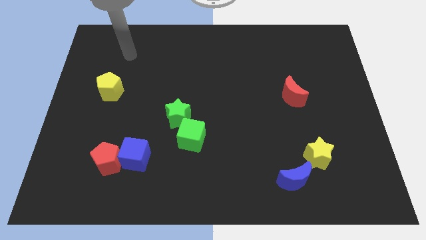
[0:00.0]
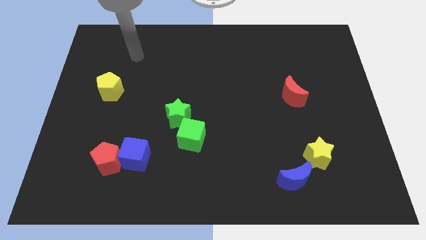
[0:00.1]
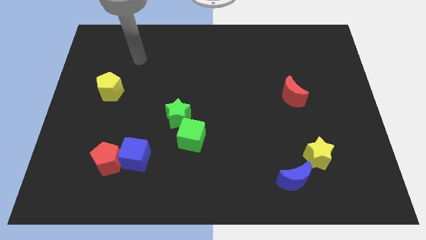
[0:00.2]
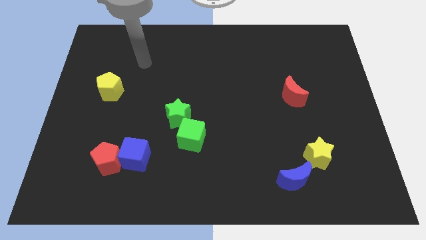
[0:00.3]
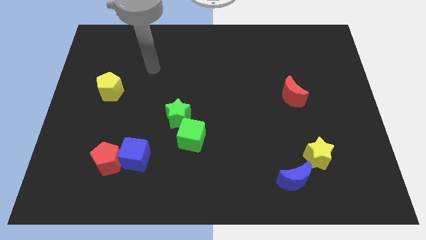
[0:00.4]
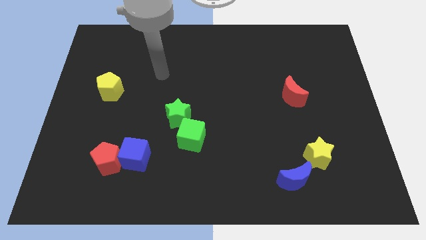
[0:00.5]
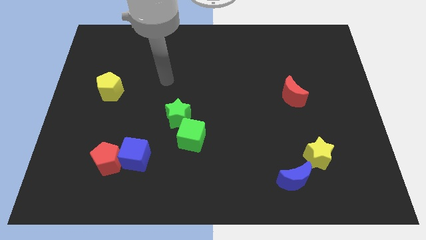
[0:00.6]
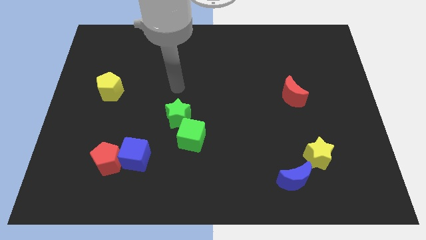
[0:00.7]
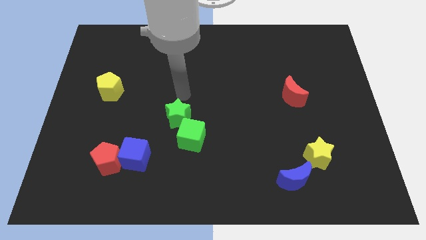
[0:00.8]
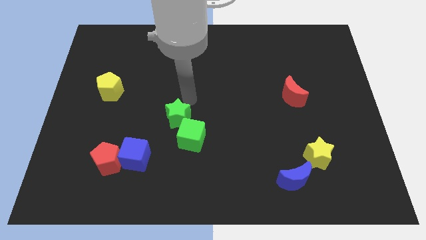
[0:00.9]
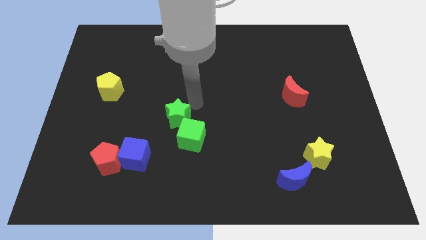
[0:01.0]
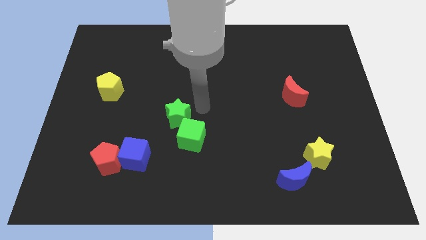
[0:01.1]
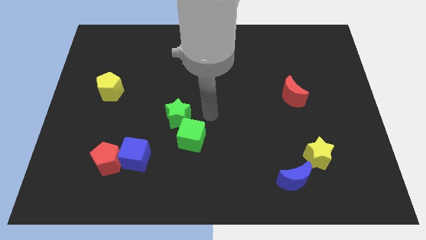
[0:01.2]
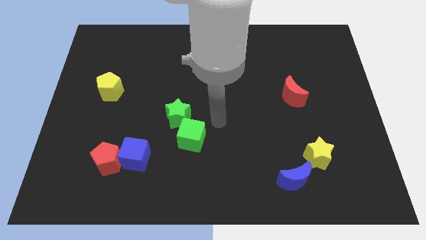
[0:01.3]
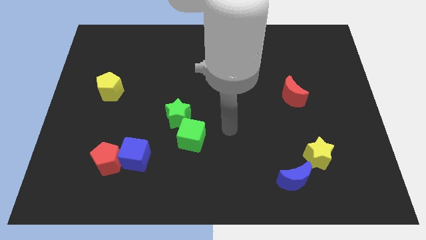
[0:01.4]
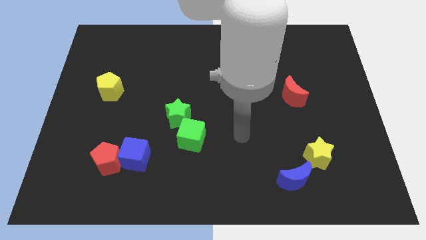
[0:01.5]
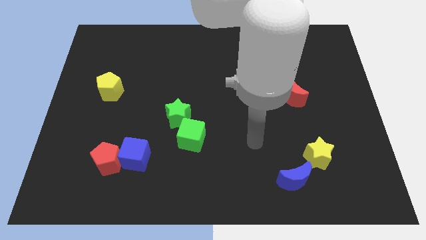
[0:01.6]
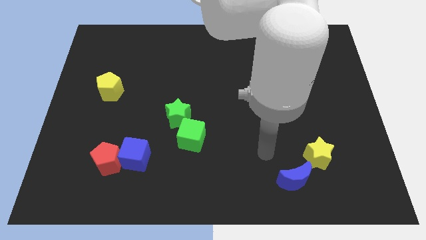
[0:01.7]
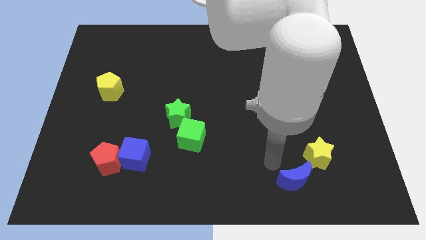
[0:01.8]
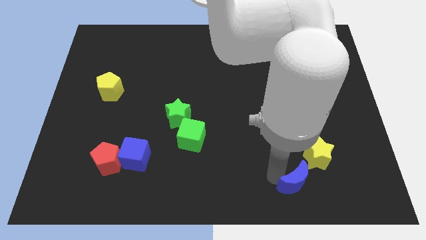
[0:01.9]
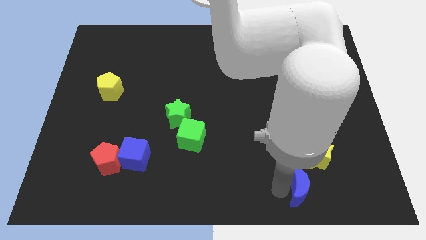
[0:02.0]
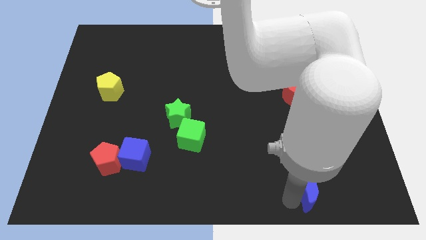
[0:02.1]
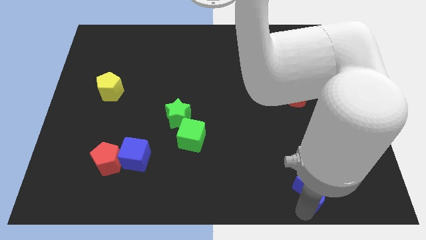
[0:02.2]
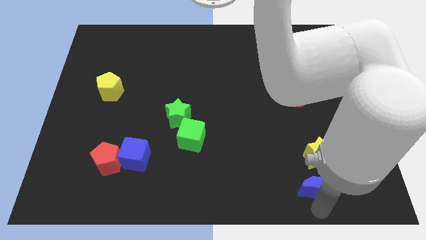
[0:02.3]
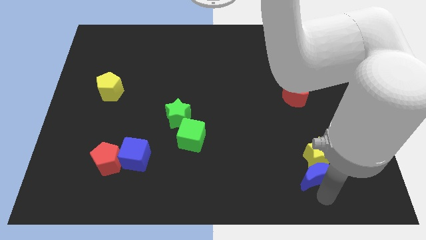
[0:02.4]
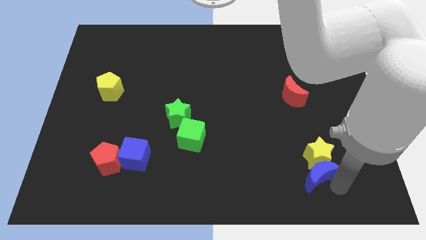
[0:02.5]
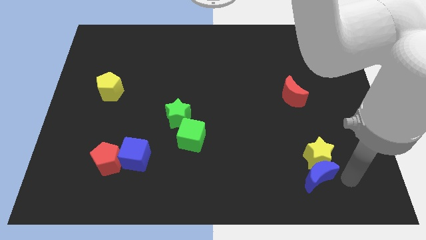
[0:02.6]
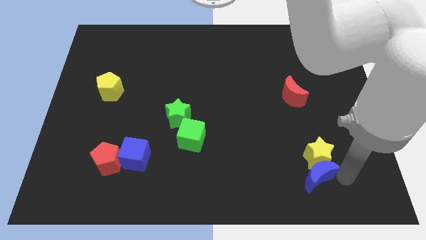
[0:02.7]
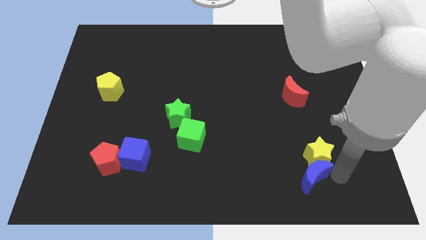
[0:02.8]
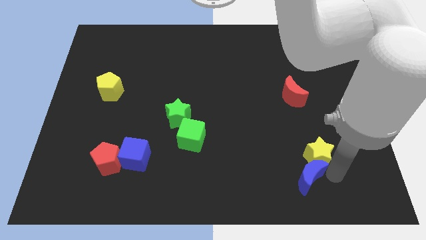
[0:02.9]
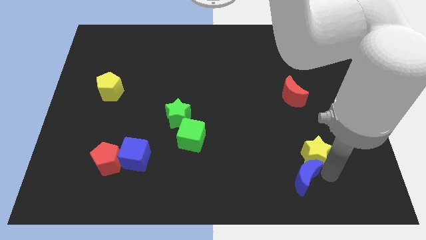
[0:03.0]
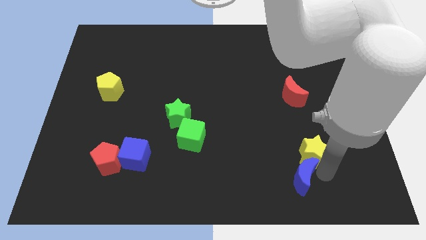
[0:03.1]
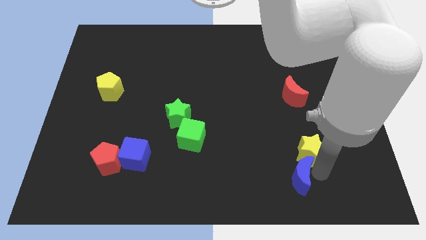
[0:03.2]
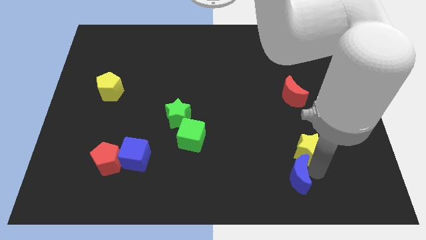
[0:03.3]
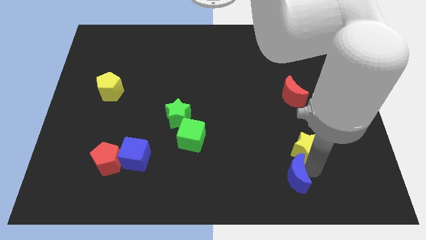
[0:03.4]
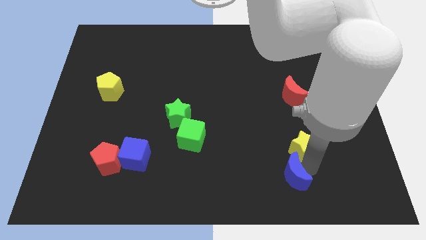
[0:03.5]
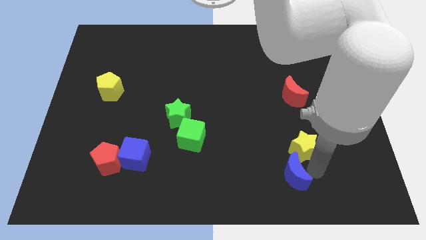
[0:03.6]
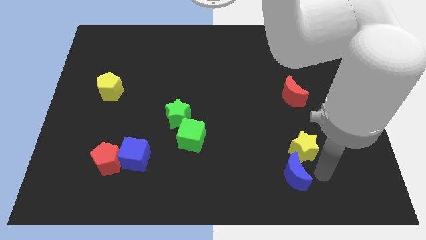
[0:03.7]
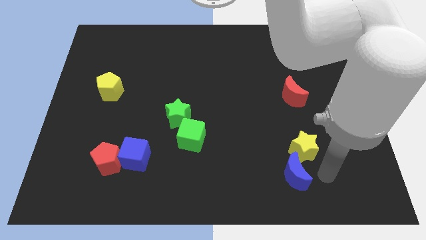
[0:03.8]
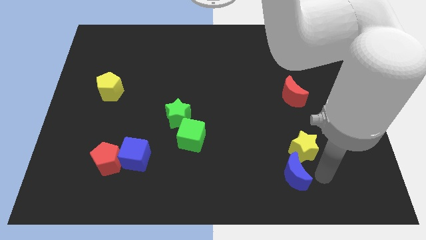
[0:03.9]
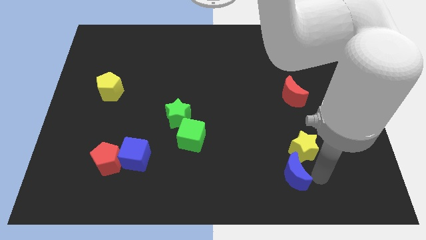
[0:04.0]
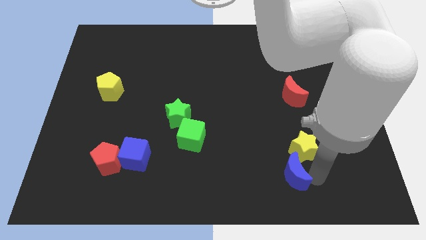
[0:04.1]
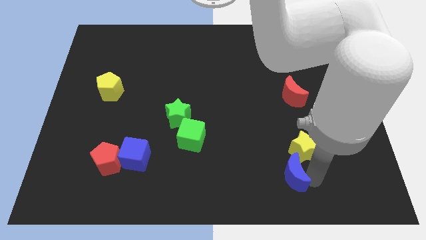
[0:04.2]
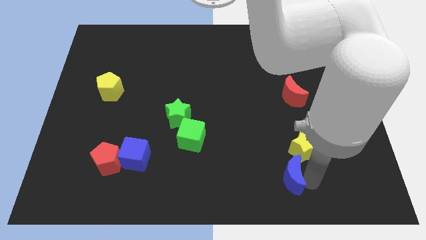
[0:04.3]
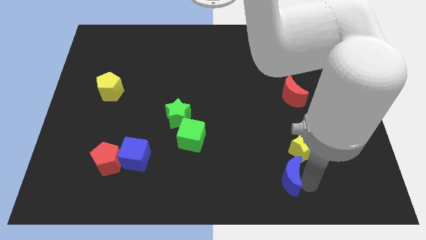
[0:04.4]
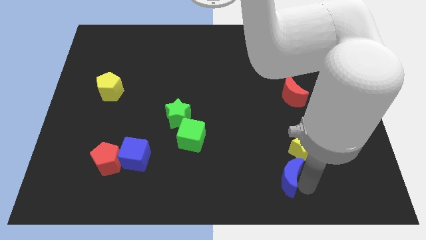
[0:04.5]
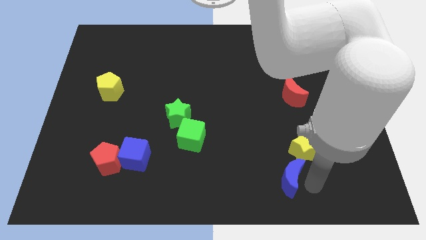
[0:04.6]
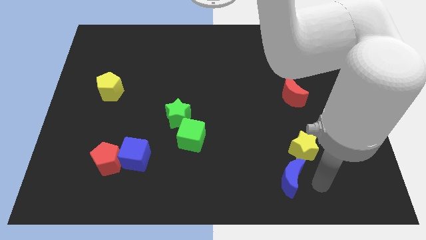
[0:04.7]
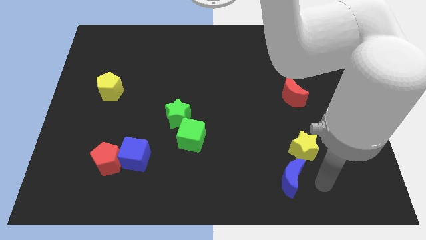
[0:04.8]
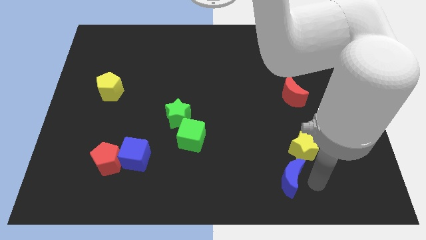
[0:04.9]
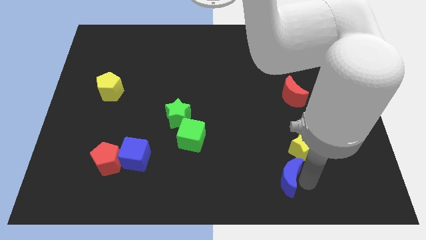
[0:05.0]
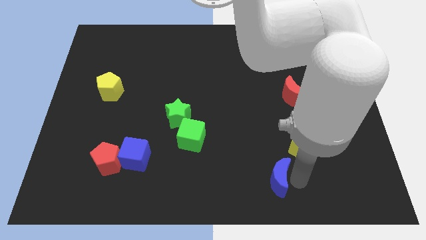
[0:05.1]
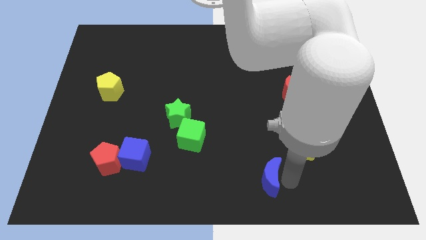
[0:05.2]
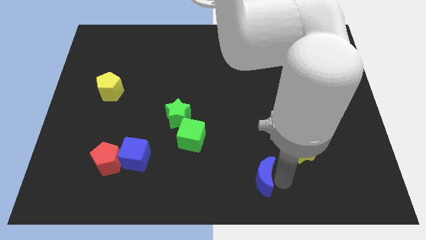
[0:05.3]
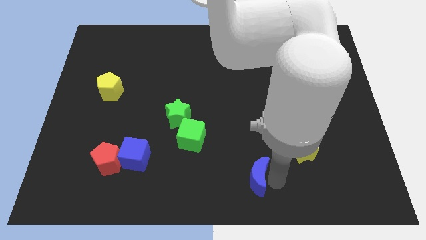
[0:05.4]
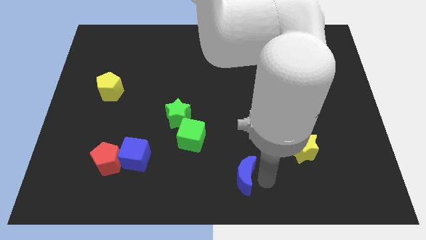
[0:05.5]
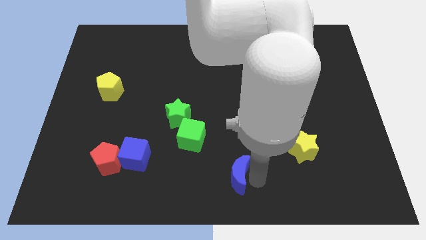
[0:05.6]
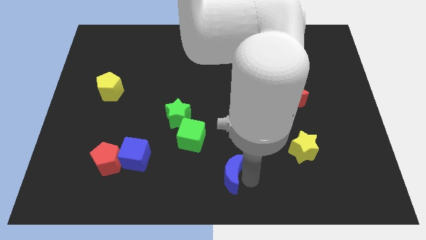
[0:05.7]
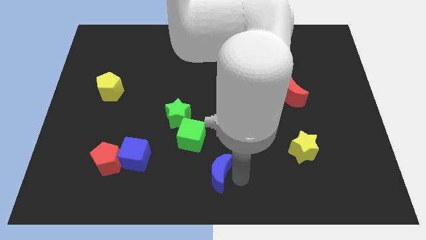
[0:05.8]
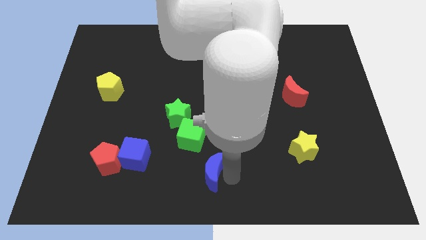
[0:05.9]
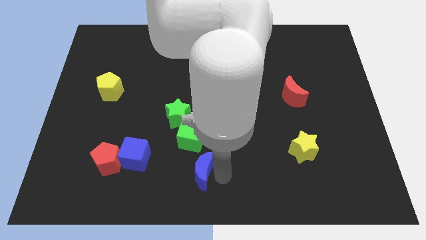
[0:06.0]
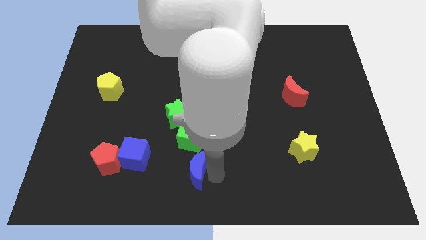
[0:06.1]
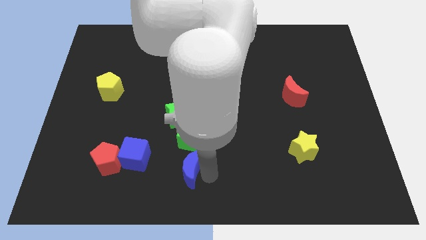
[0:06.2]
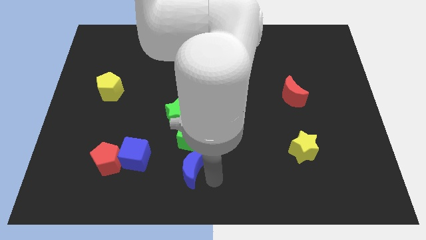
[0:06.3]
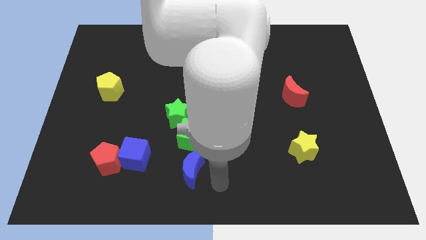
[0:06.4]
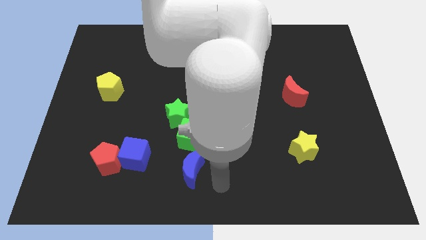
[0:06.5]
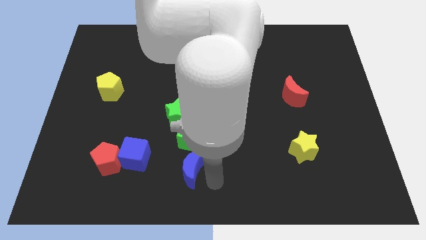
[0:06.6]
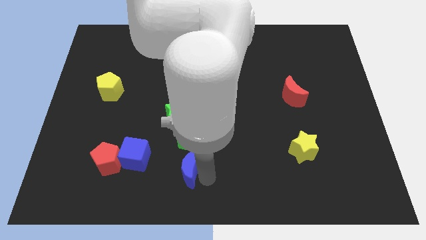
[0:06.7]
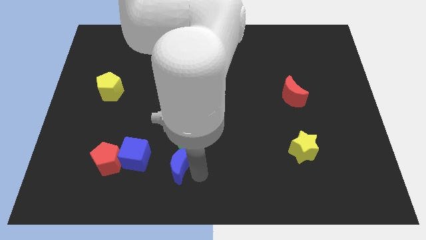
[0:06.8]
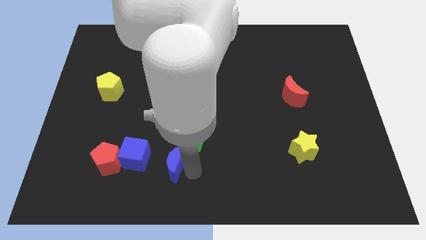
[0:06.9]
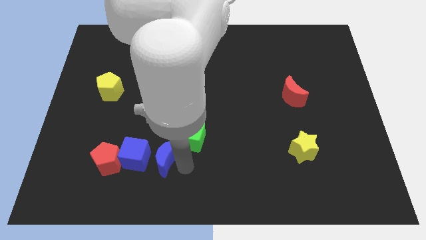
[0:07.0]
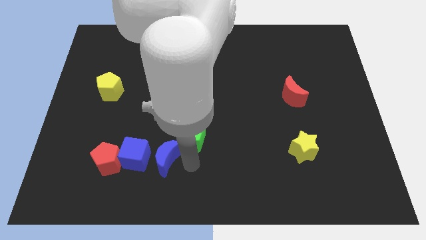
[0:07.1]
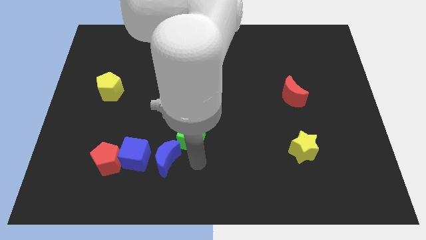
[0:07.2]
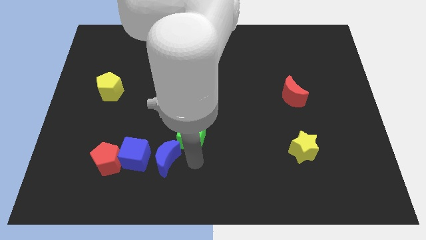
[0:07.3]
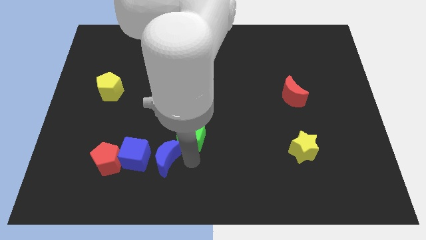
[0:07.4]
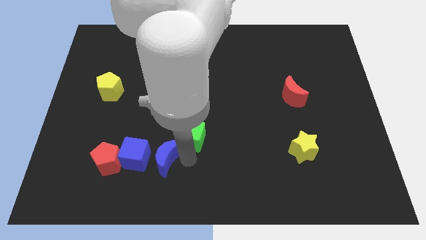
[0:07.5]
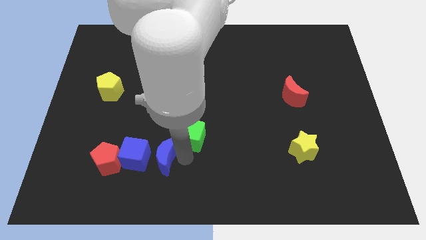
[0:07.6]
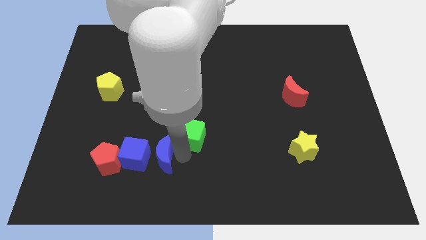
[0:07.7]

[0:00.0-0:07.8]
push the blue moon towards the blue cube
